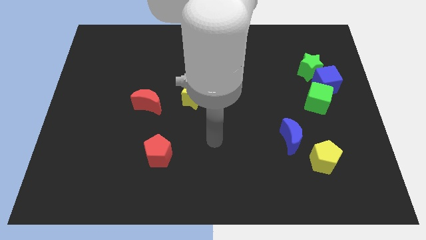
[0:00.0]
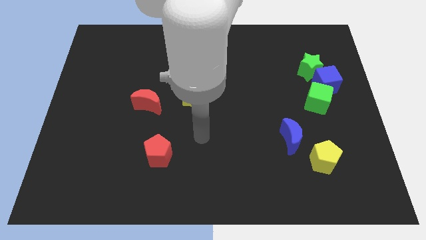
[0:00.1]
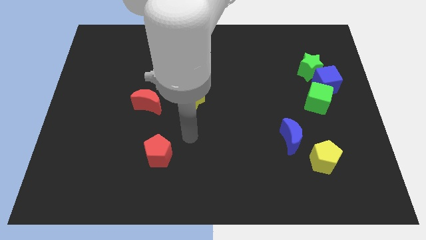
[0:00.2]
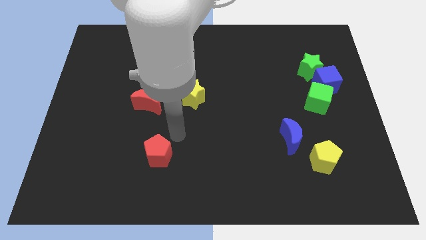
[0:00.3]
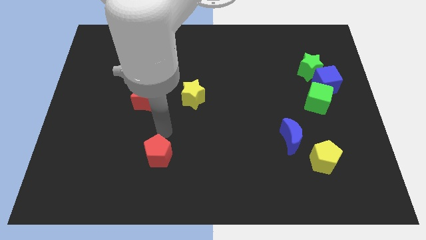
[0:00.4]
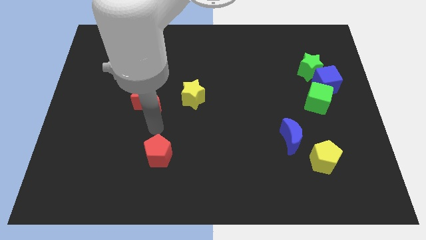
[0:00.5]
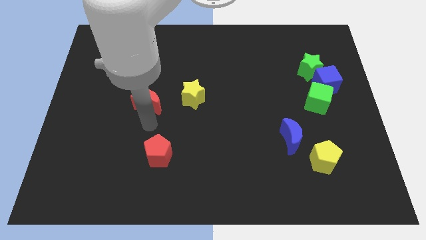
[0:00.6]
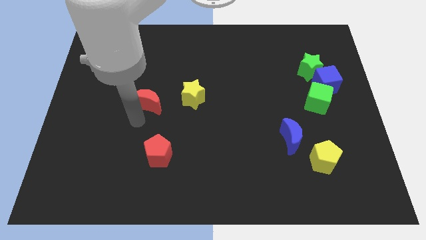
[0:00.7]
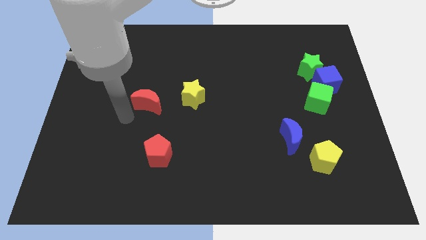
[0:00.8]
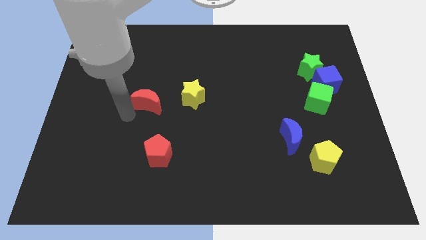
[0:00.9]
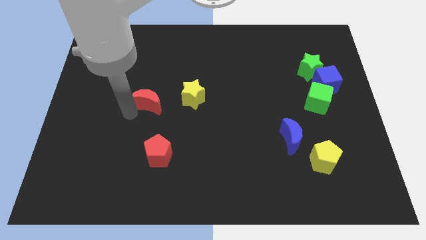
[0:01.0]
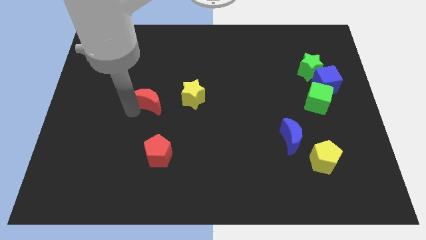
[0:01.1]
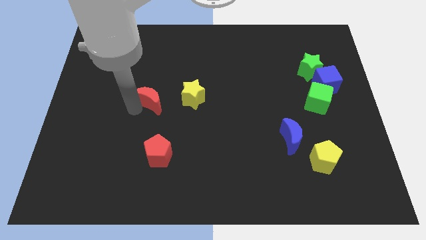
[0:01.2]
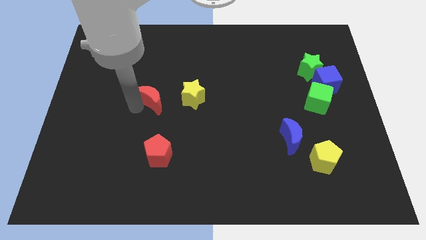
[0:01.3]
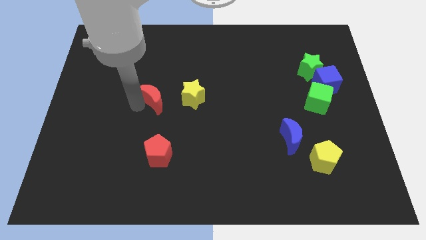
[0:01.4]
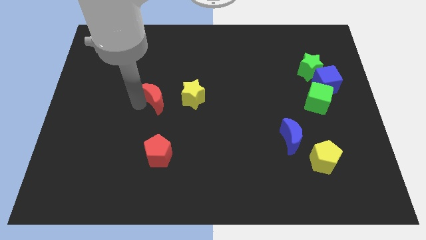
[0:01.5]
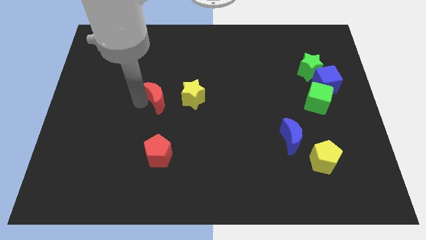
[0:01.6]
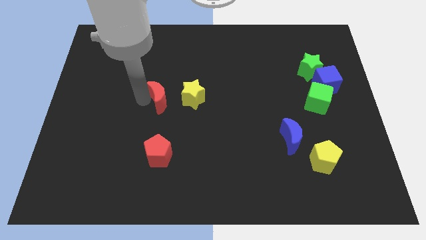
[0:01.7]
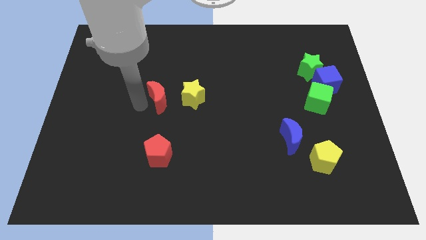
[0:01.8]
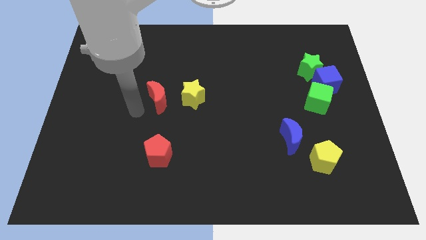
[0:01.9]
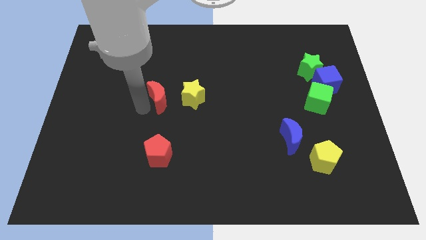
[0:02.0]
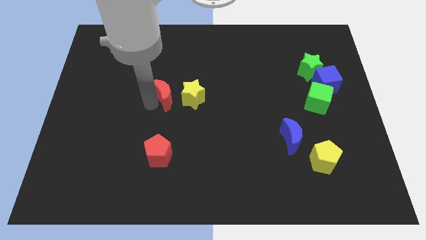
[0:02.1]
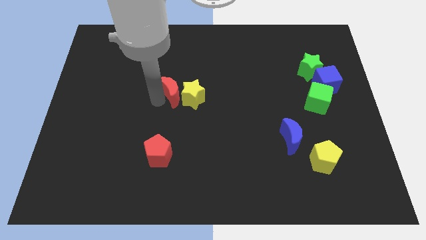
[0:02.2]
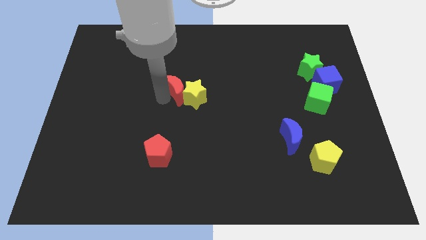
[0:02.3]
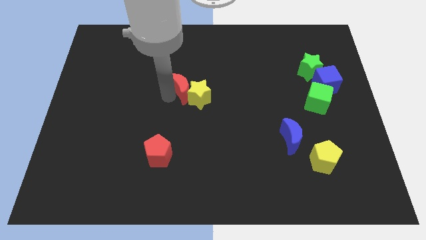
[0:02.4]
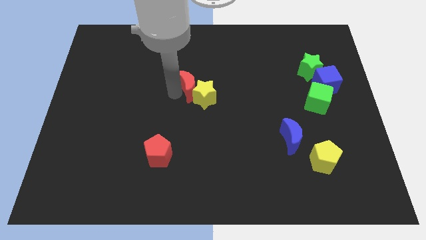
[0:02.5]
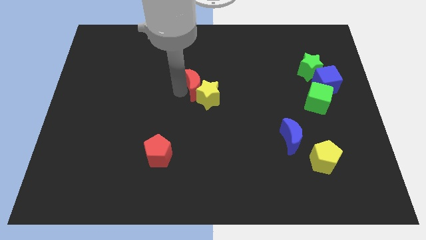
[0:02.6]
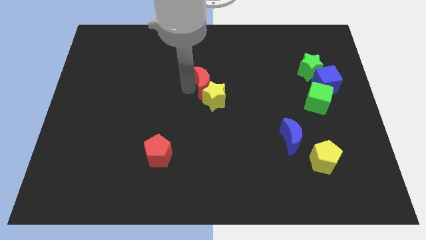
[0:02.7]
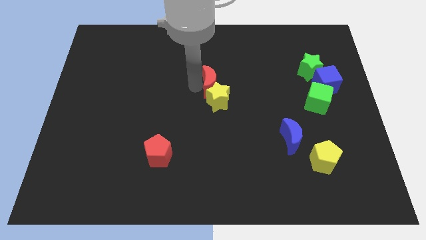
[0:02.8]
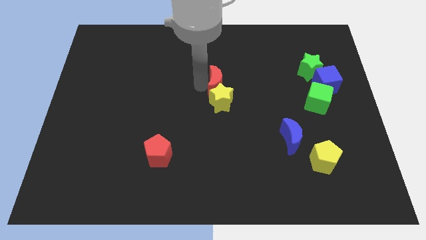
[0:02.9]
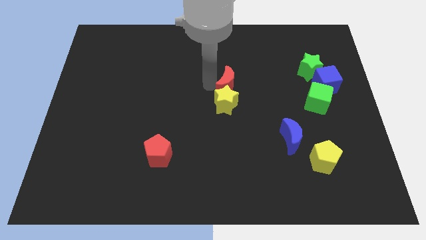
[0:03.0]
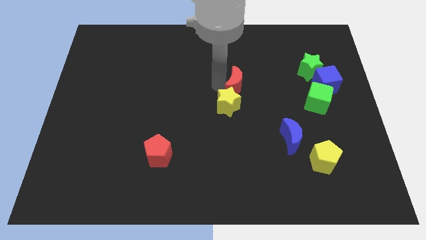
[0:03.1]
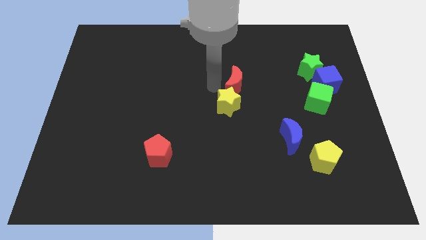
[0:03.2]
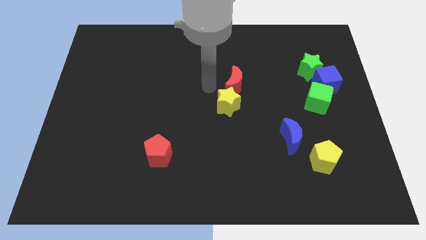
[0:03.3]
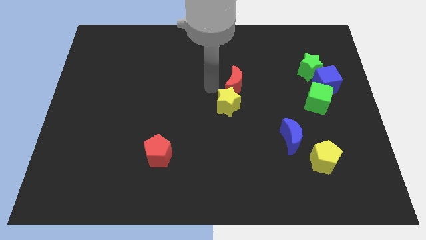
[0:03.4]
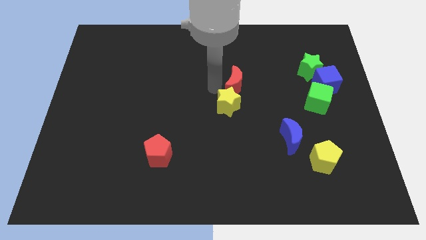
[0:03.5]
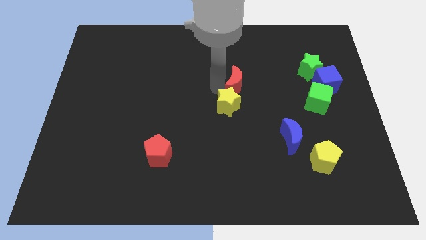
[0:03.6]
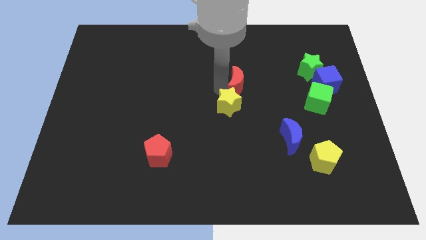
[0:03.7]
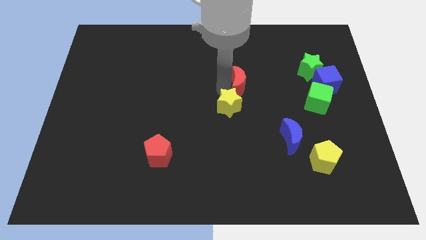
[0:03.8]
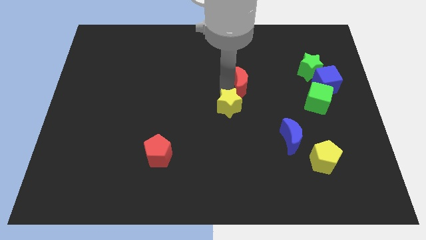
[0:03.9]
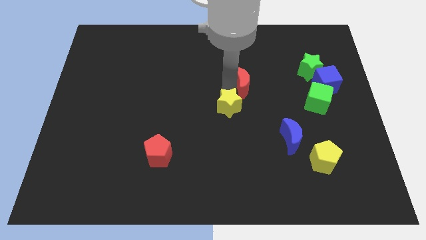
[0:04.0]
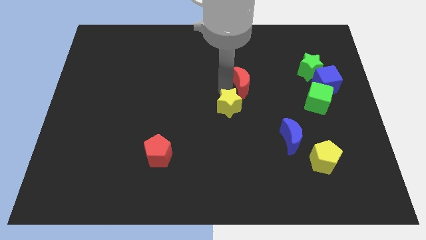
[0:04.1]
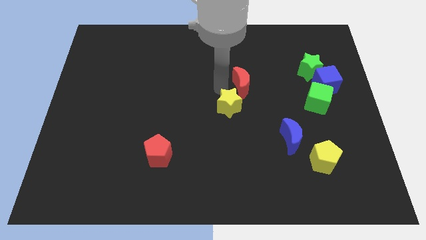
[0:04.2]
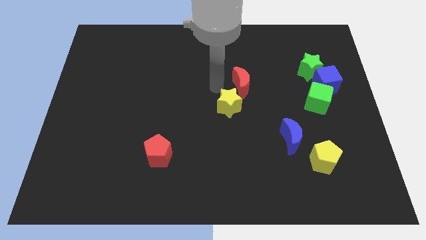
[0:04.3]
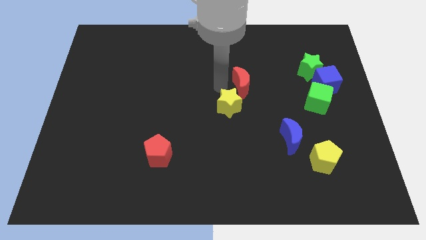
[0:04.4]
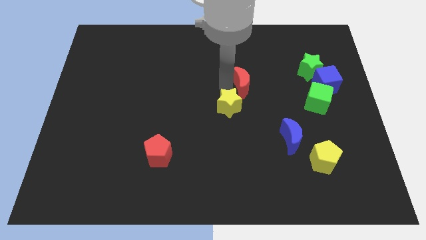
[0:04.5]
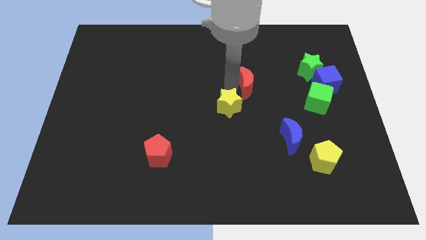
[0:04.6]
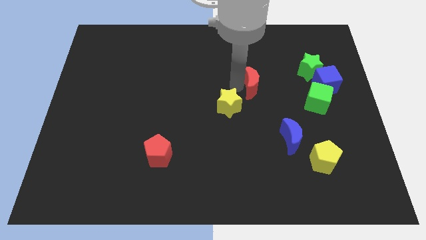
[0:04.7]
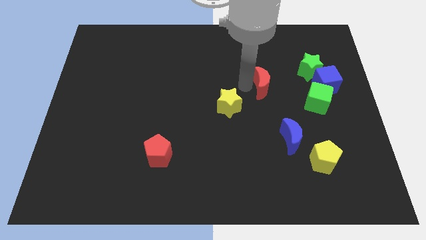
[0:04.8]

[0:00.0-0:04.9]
move the red moon to the left of the blue cube

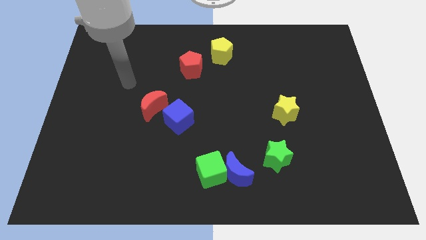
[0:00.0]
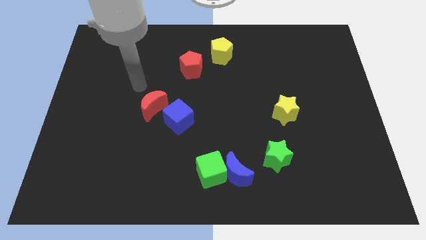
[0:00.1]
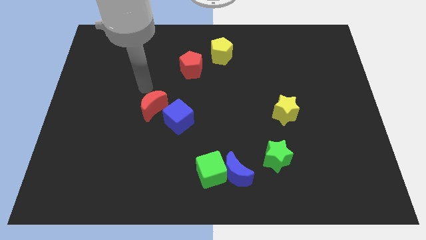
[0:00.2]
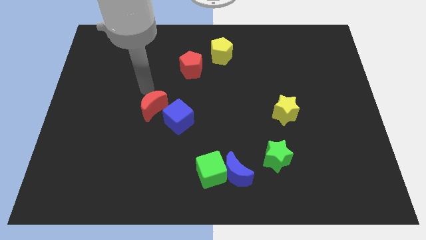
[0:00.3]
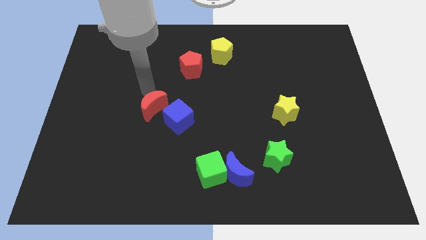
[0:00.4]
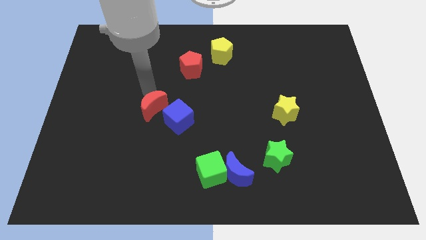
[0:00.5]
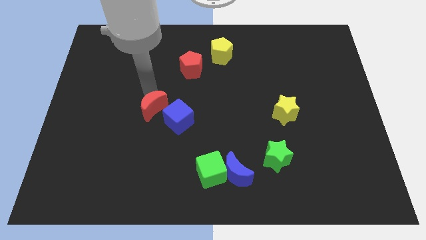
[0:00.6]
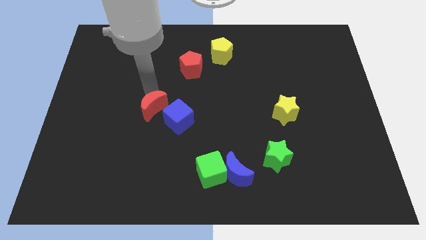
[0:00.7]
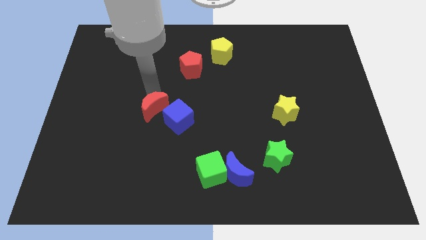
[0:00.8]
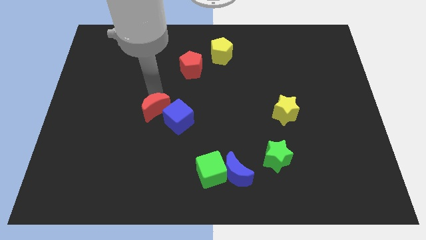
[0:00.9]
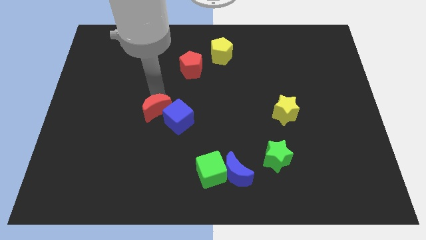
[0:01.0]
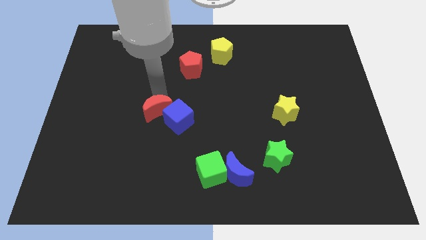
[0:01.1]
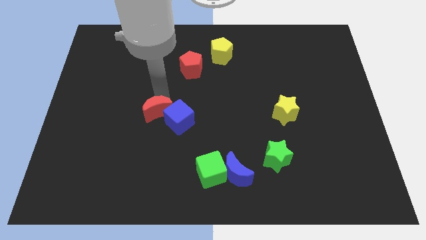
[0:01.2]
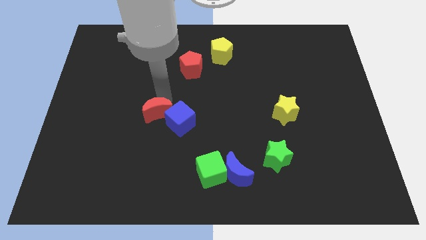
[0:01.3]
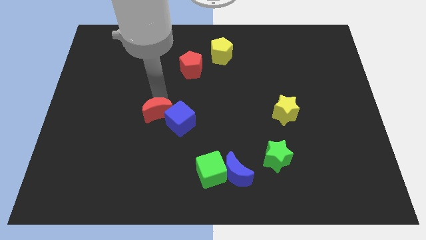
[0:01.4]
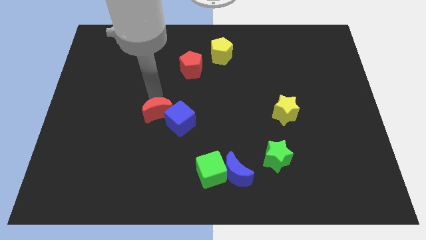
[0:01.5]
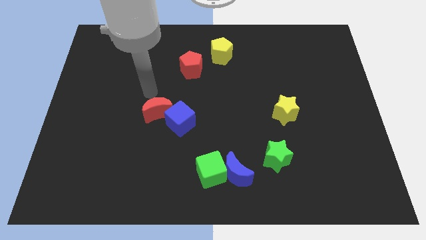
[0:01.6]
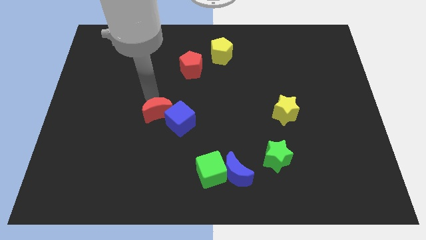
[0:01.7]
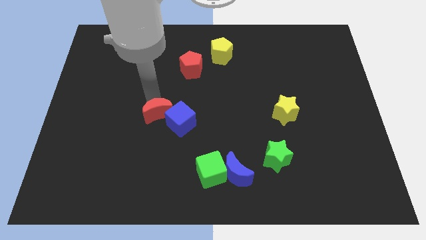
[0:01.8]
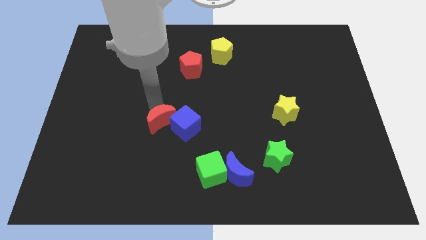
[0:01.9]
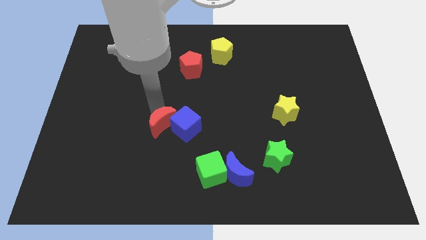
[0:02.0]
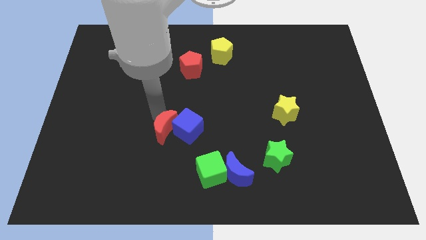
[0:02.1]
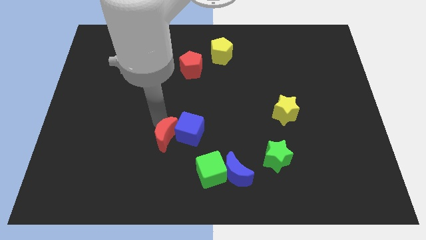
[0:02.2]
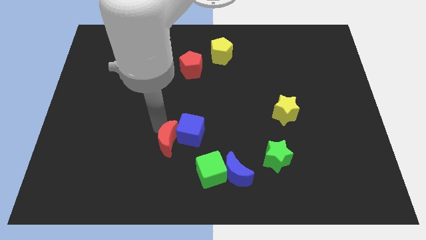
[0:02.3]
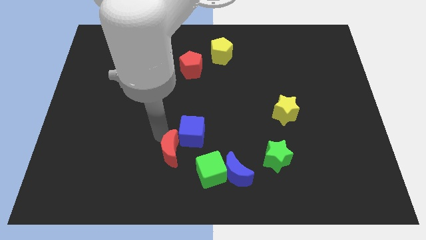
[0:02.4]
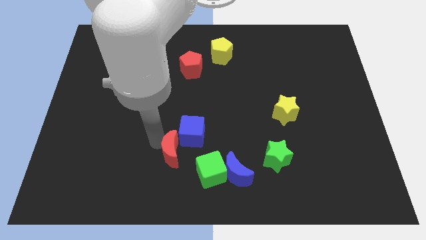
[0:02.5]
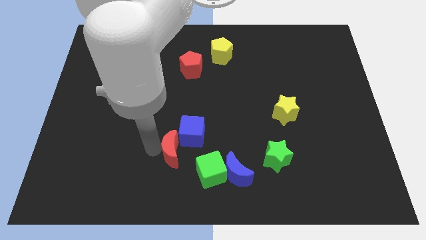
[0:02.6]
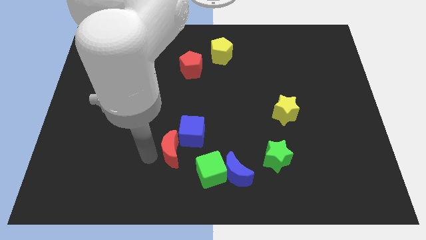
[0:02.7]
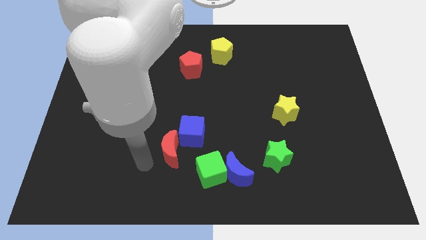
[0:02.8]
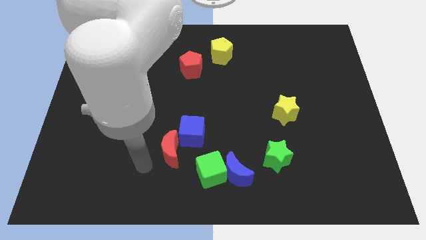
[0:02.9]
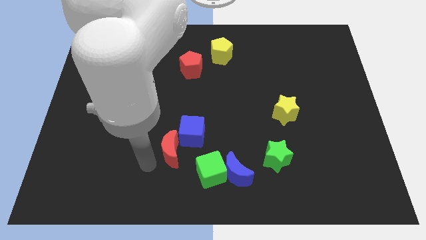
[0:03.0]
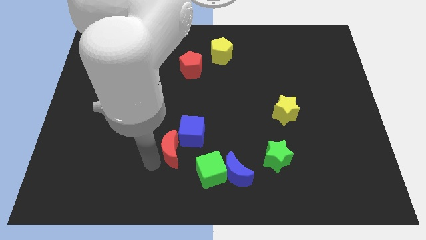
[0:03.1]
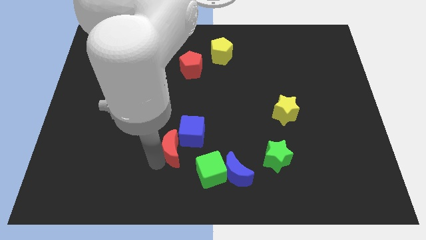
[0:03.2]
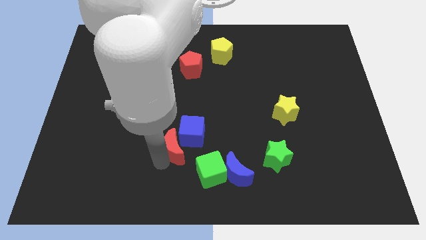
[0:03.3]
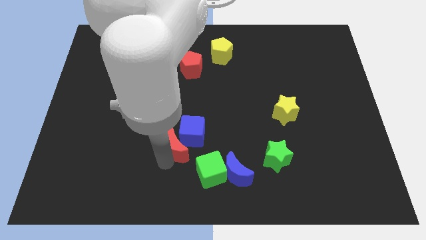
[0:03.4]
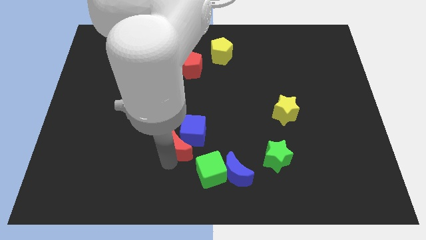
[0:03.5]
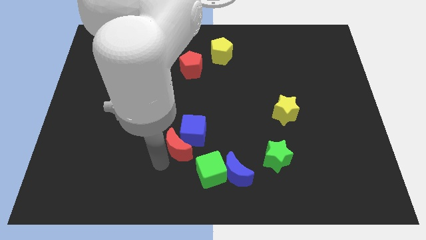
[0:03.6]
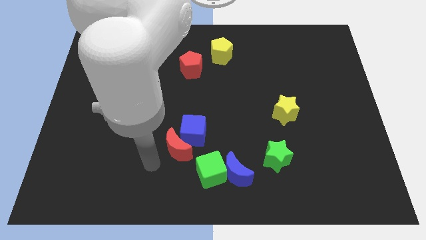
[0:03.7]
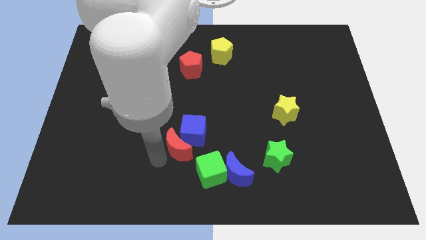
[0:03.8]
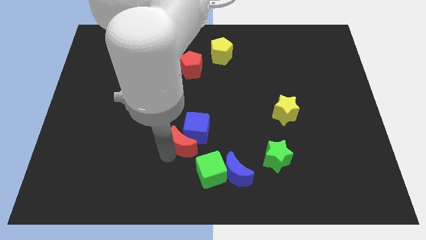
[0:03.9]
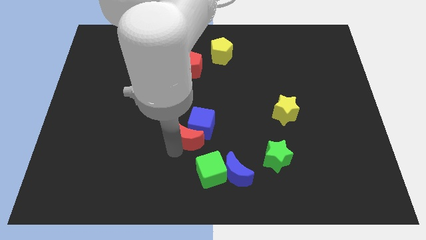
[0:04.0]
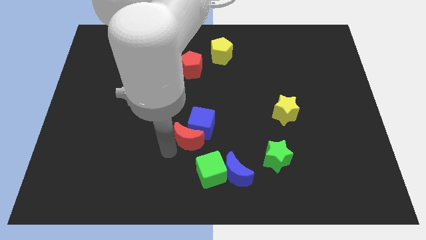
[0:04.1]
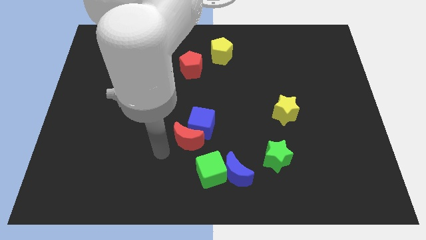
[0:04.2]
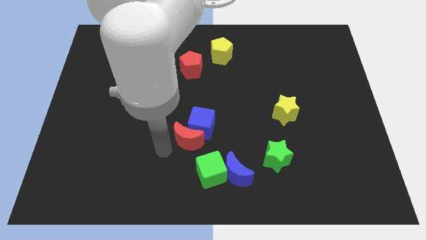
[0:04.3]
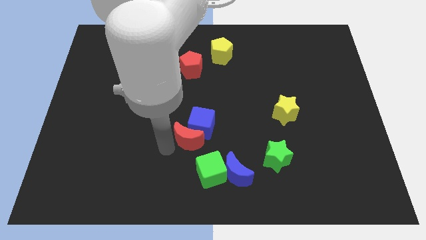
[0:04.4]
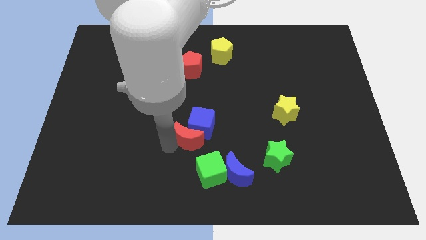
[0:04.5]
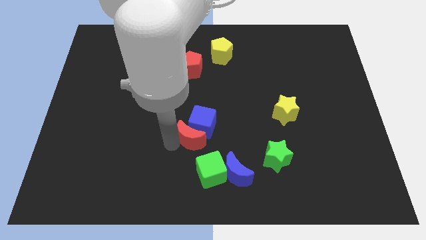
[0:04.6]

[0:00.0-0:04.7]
move the red moon above the green cube
